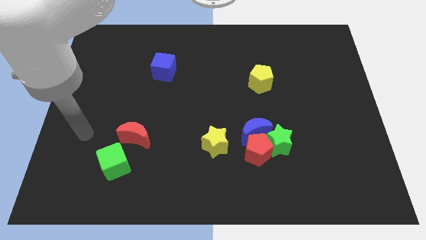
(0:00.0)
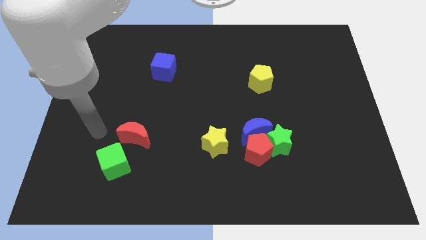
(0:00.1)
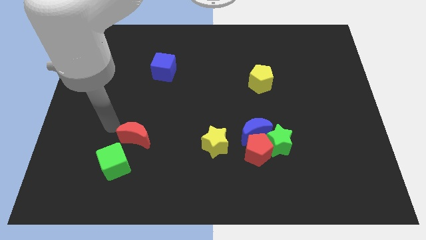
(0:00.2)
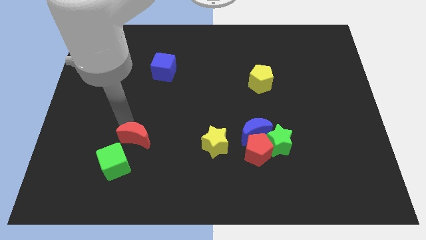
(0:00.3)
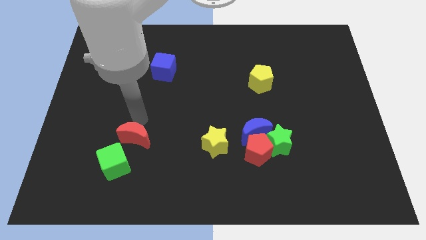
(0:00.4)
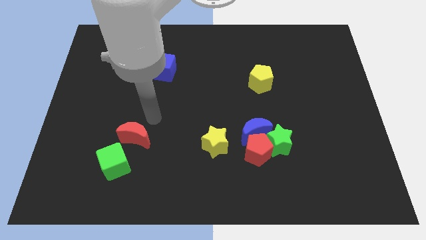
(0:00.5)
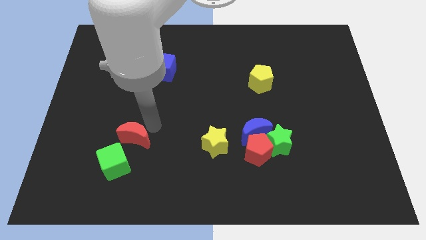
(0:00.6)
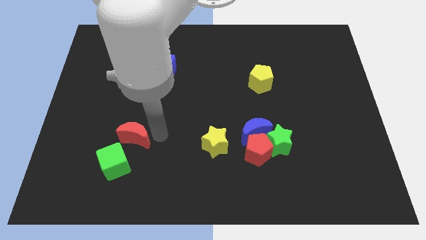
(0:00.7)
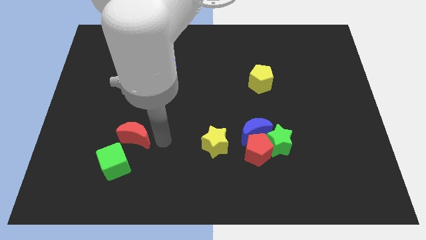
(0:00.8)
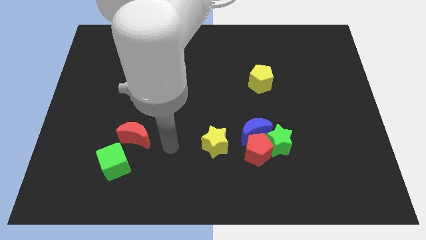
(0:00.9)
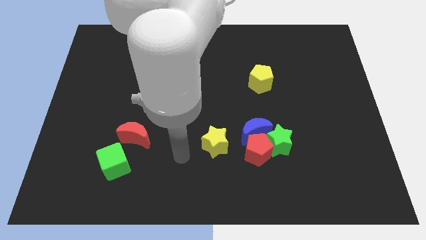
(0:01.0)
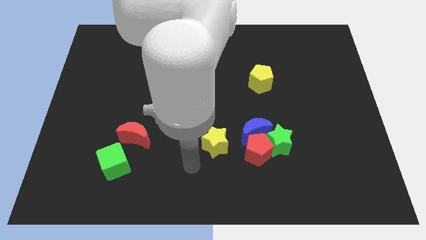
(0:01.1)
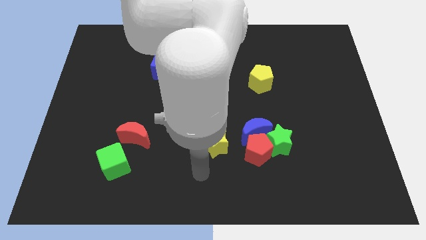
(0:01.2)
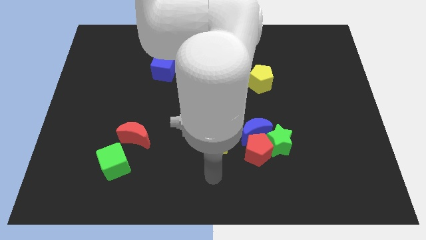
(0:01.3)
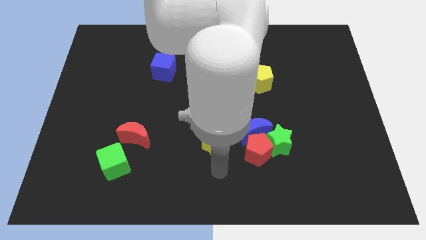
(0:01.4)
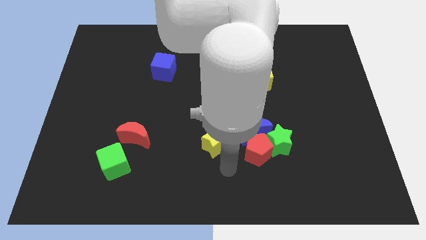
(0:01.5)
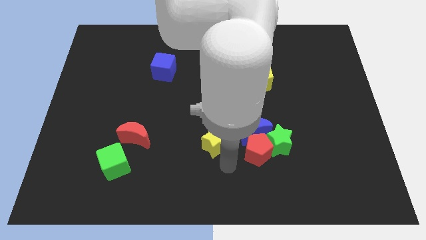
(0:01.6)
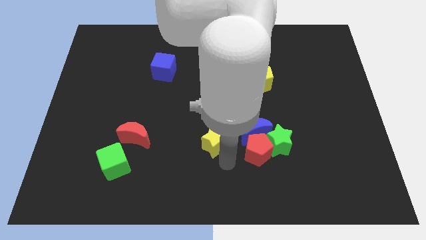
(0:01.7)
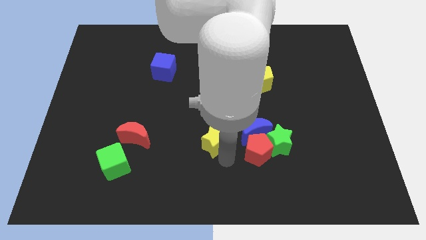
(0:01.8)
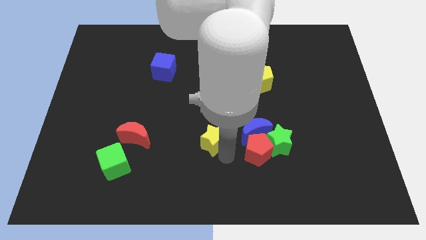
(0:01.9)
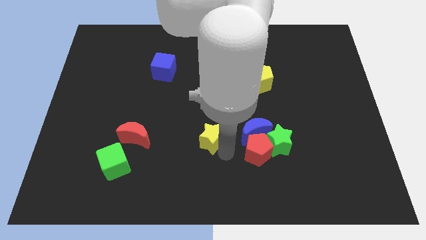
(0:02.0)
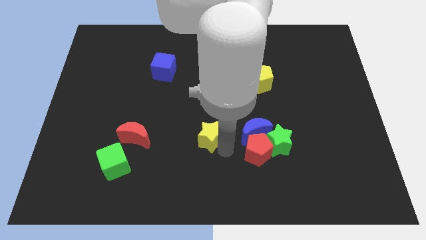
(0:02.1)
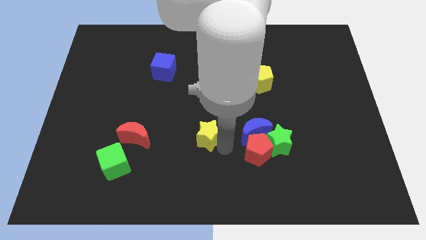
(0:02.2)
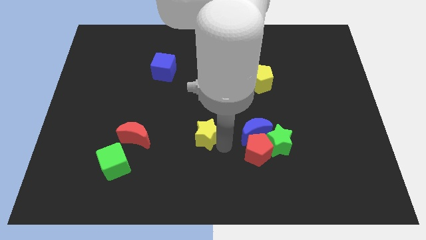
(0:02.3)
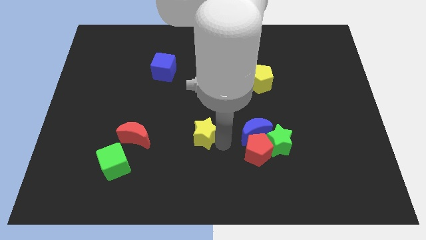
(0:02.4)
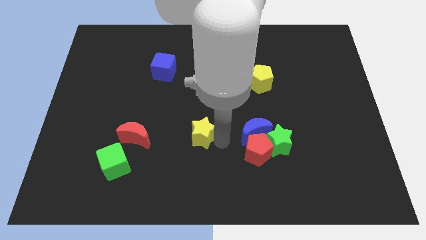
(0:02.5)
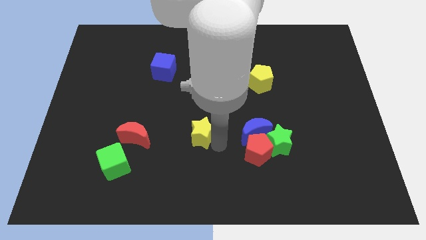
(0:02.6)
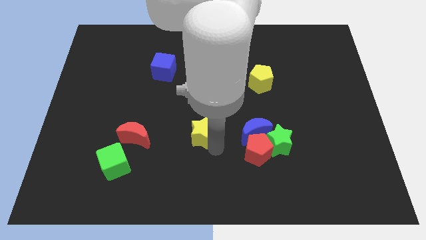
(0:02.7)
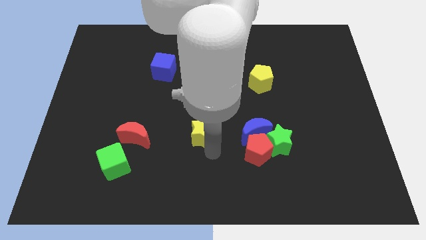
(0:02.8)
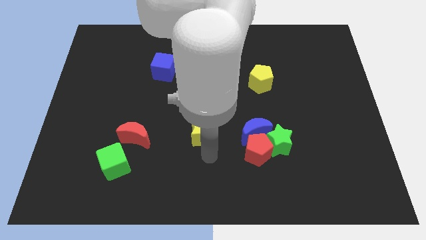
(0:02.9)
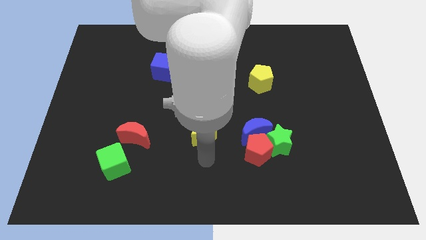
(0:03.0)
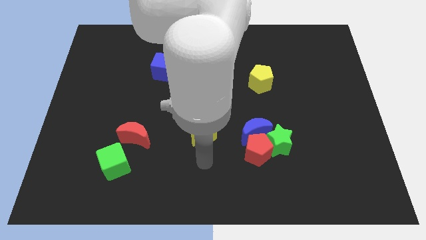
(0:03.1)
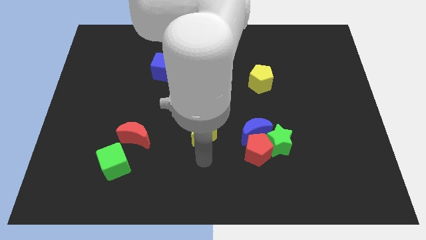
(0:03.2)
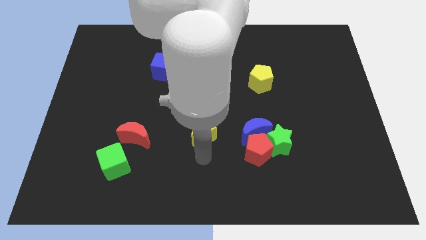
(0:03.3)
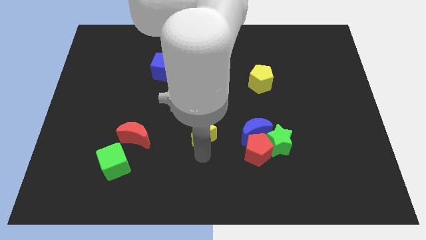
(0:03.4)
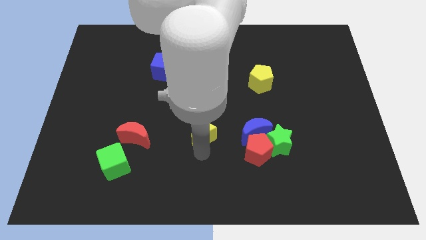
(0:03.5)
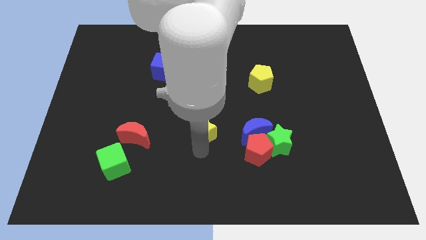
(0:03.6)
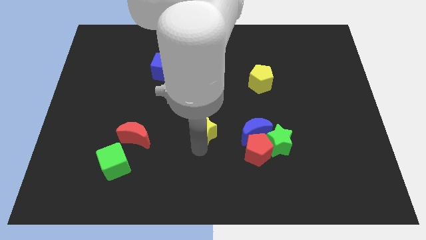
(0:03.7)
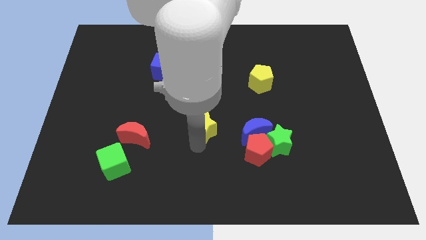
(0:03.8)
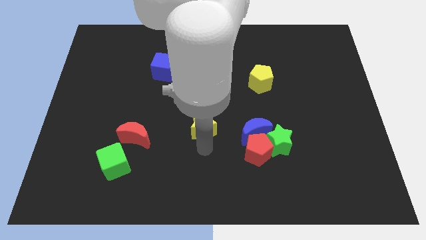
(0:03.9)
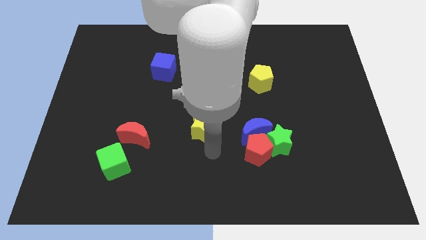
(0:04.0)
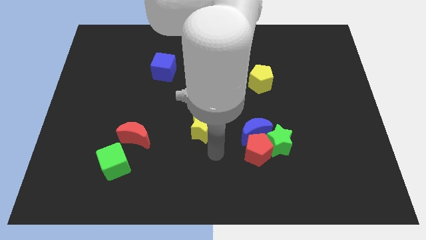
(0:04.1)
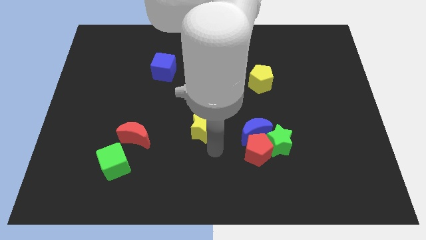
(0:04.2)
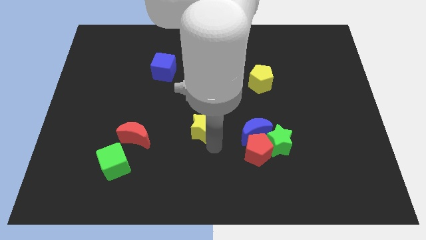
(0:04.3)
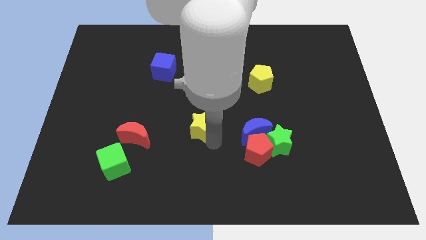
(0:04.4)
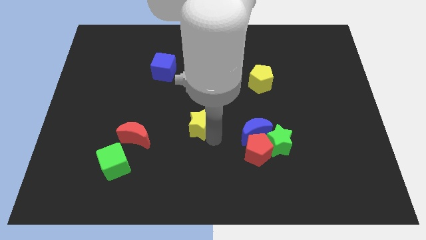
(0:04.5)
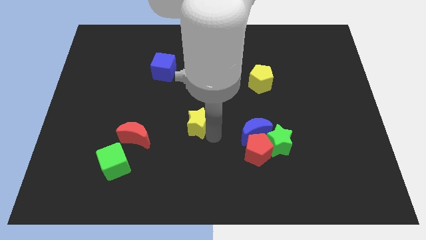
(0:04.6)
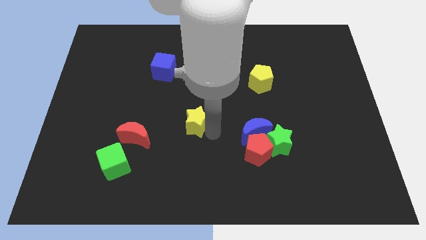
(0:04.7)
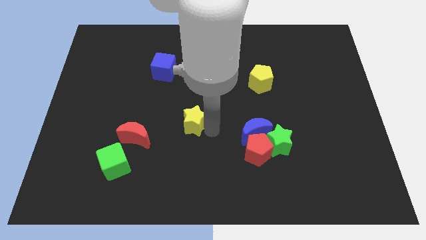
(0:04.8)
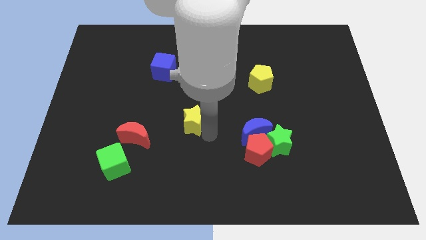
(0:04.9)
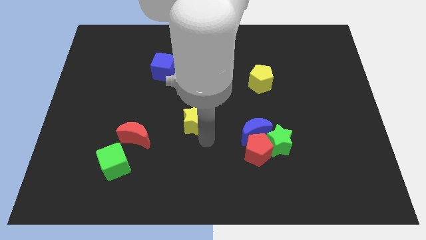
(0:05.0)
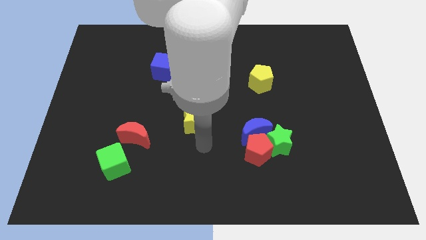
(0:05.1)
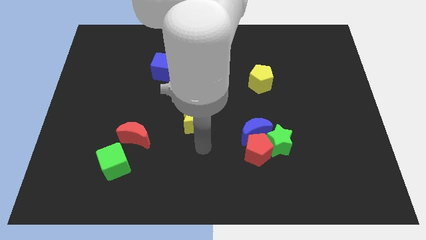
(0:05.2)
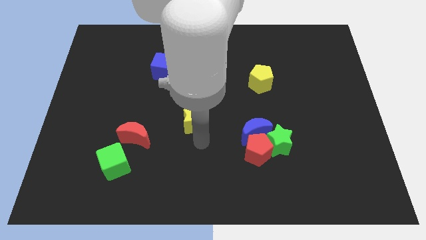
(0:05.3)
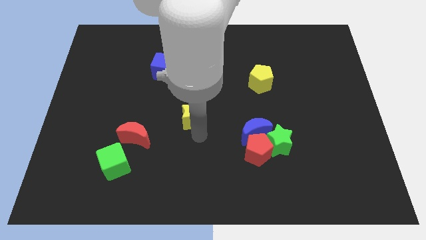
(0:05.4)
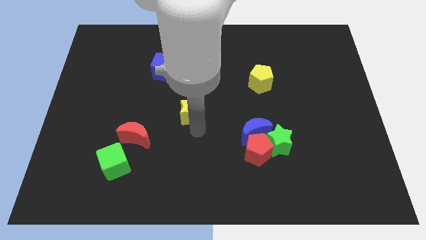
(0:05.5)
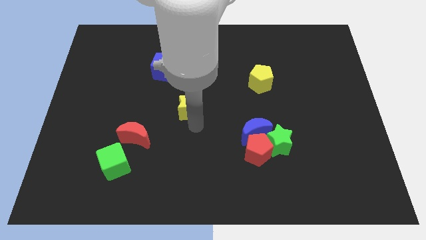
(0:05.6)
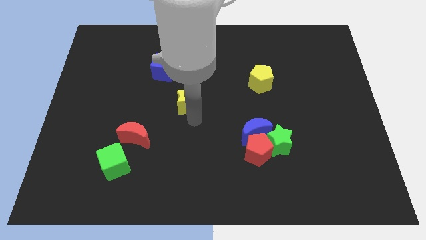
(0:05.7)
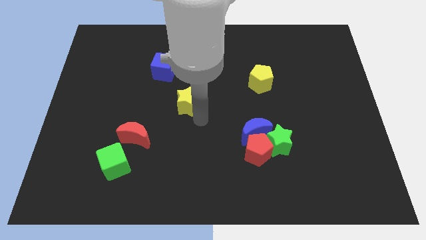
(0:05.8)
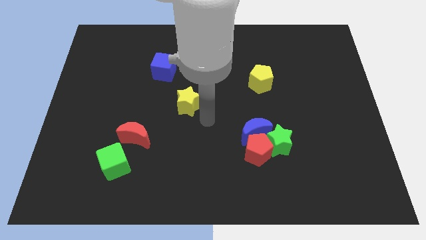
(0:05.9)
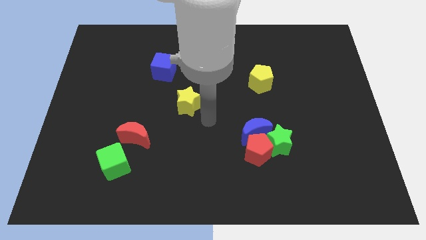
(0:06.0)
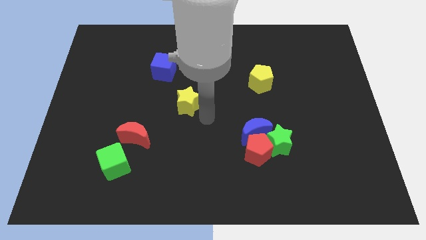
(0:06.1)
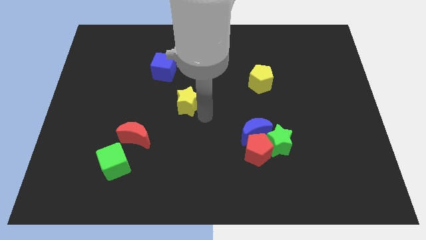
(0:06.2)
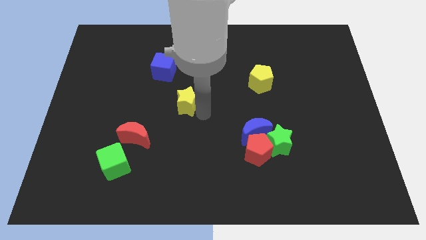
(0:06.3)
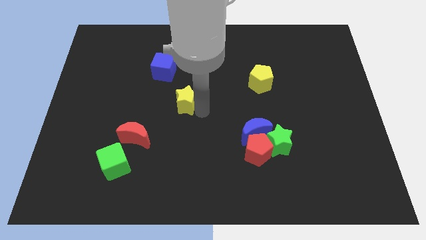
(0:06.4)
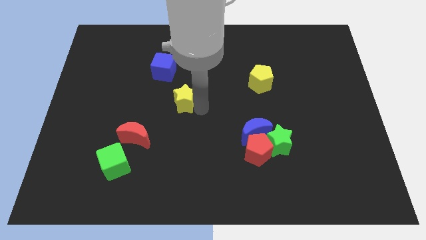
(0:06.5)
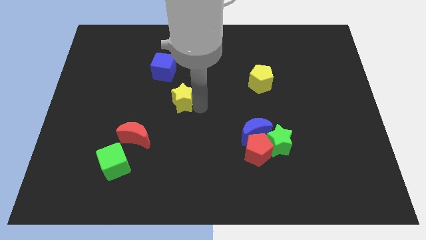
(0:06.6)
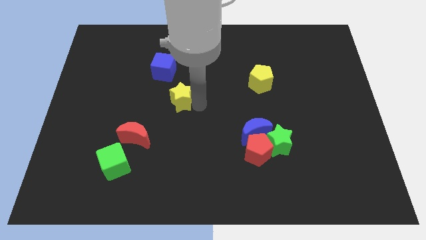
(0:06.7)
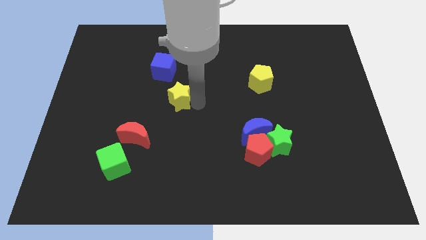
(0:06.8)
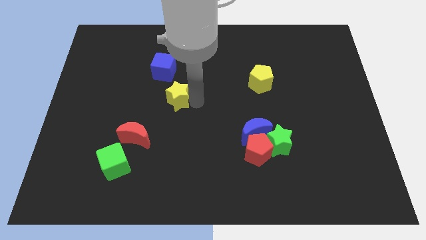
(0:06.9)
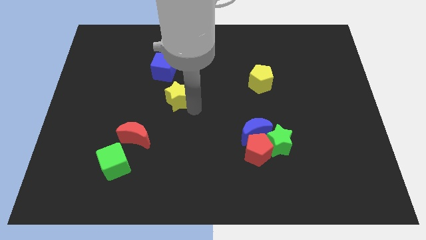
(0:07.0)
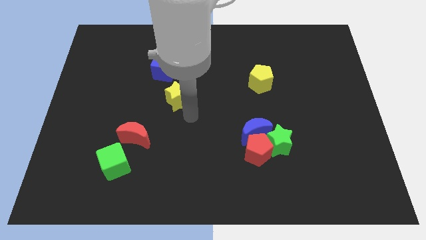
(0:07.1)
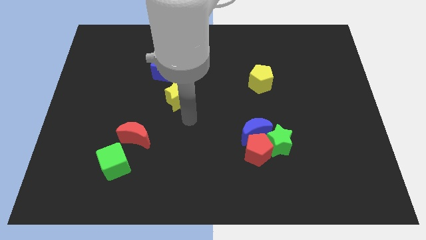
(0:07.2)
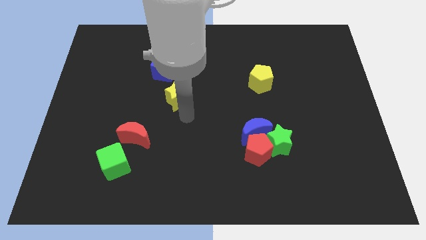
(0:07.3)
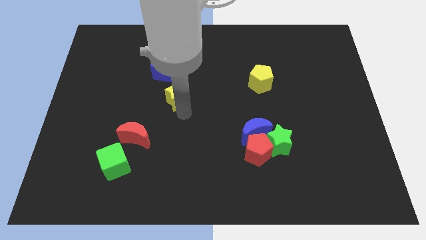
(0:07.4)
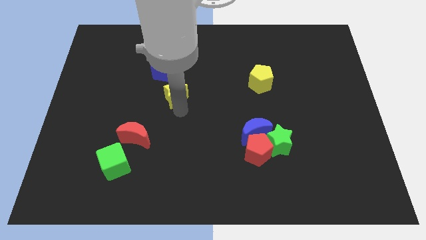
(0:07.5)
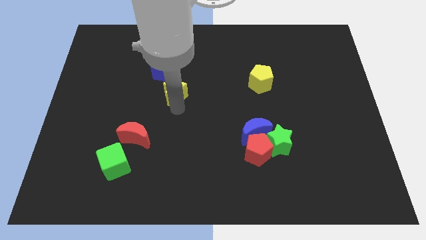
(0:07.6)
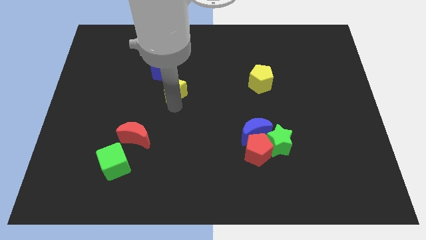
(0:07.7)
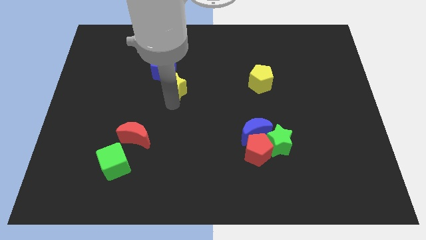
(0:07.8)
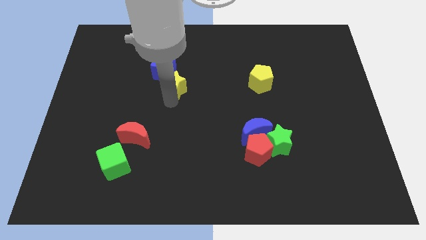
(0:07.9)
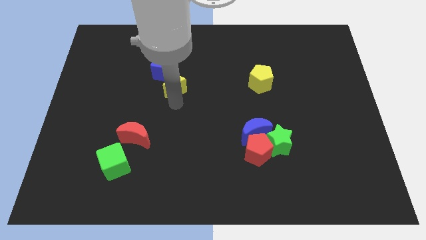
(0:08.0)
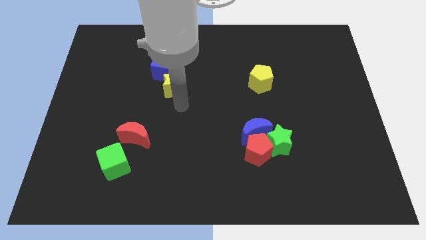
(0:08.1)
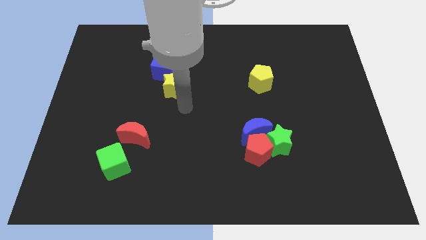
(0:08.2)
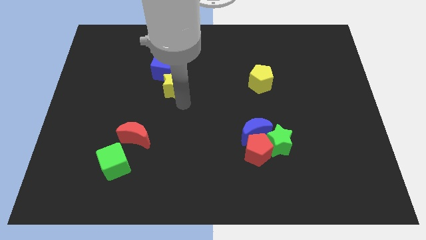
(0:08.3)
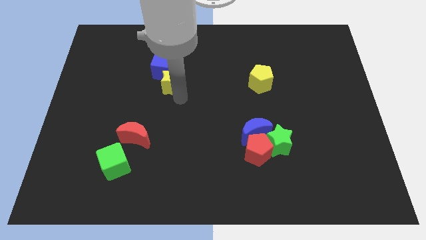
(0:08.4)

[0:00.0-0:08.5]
move the yellow star towards the blue cube
